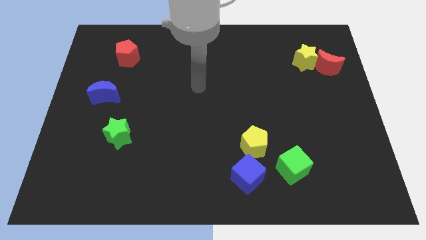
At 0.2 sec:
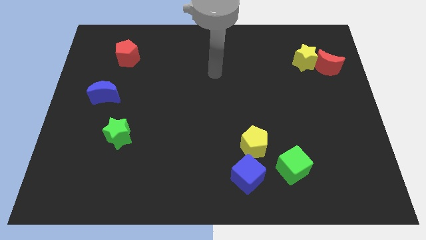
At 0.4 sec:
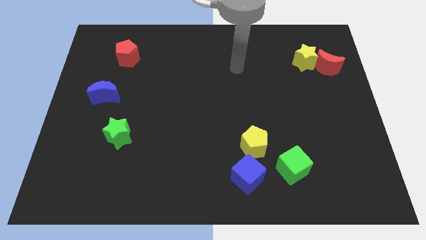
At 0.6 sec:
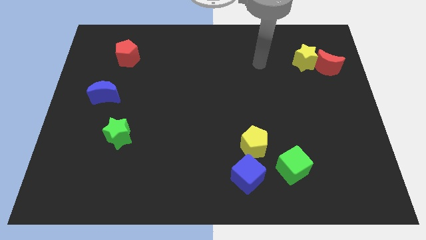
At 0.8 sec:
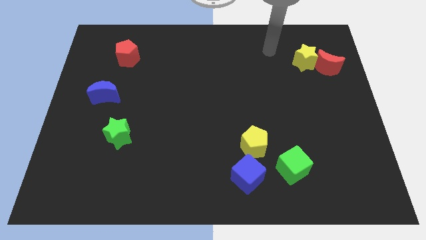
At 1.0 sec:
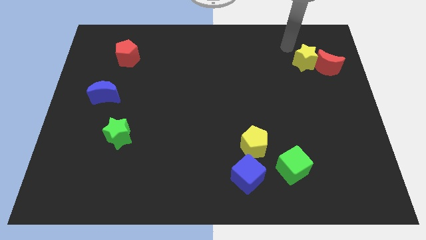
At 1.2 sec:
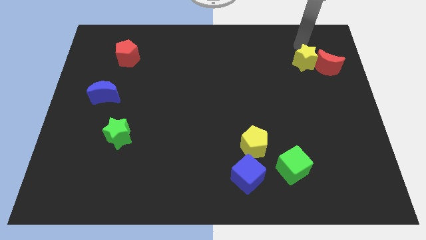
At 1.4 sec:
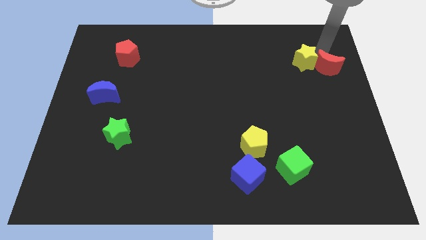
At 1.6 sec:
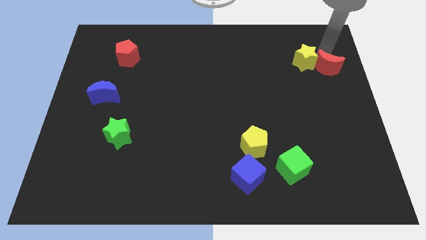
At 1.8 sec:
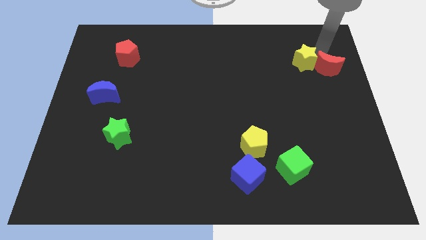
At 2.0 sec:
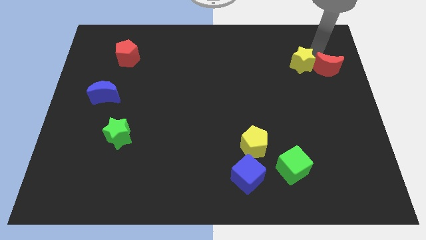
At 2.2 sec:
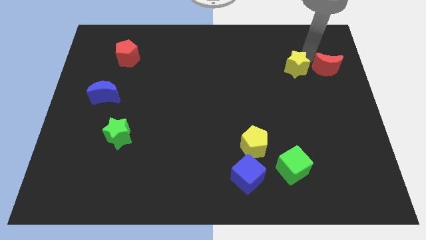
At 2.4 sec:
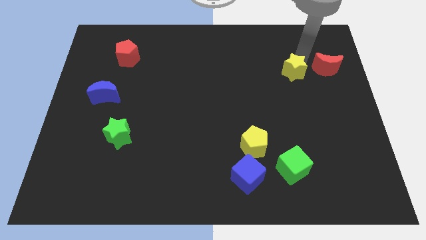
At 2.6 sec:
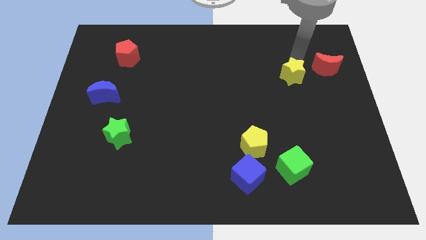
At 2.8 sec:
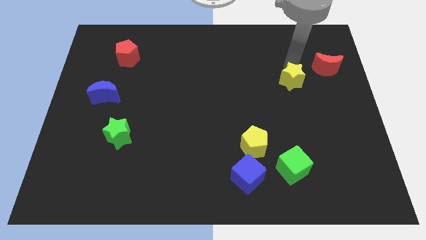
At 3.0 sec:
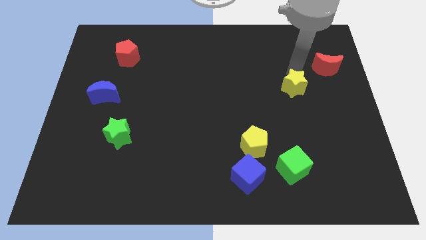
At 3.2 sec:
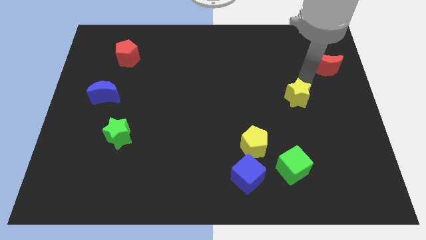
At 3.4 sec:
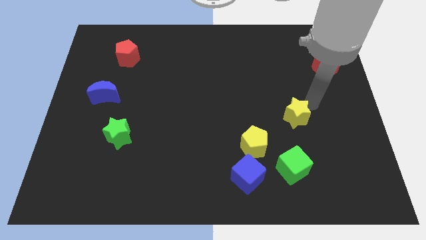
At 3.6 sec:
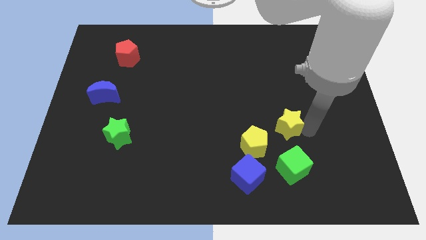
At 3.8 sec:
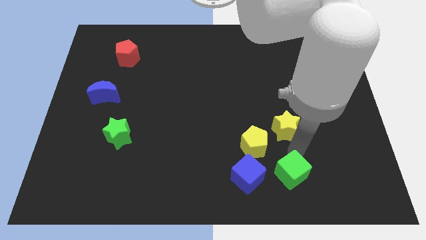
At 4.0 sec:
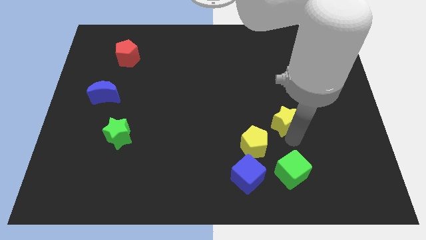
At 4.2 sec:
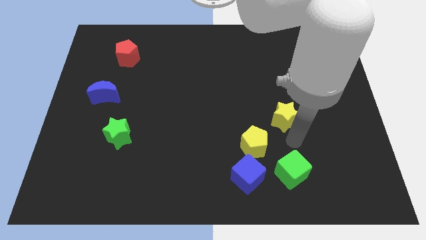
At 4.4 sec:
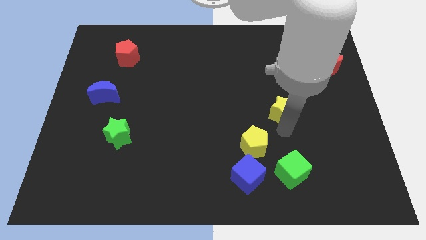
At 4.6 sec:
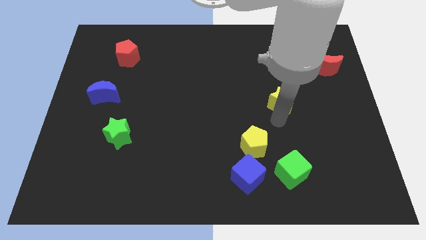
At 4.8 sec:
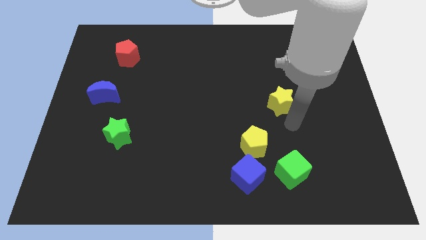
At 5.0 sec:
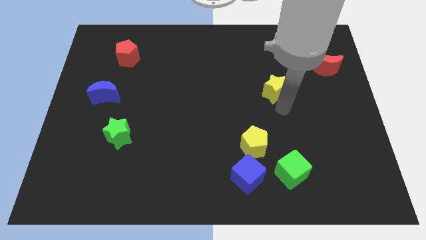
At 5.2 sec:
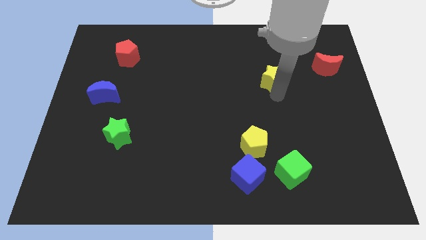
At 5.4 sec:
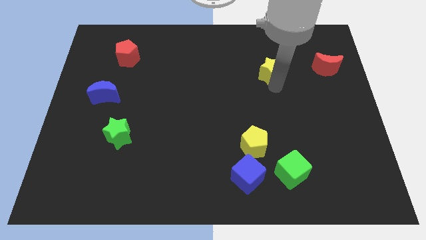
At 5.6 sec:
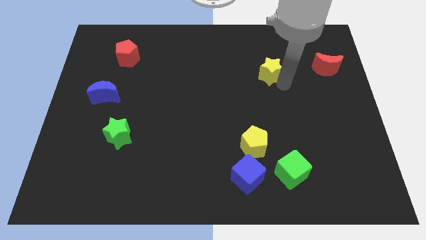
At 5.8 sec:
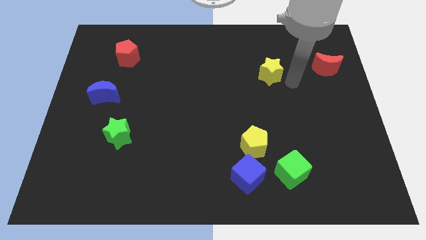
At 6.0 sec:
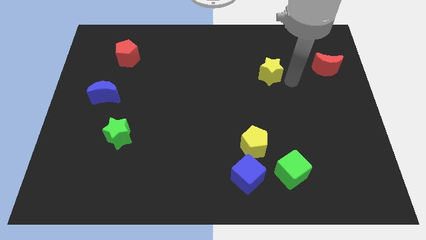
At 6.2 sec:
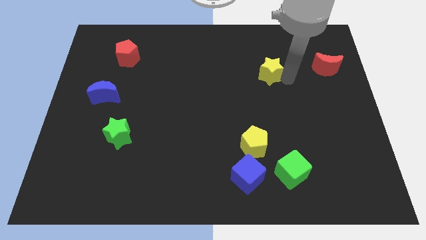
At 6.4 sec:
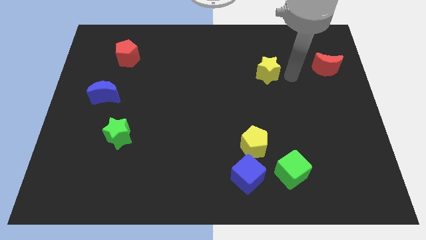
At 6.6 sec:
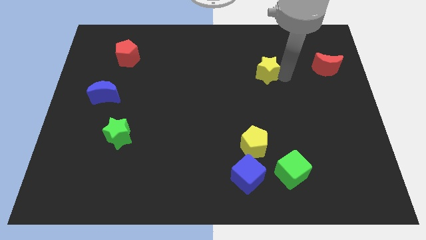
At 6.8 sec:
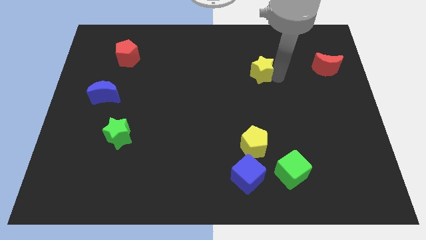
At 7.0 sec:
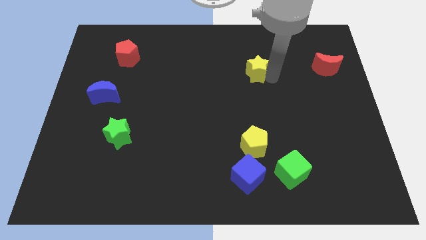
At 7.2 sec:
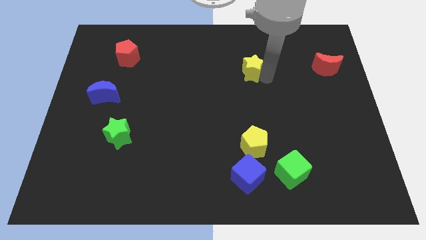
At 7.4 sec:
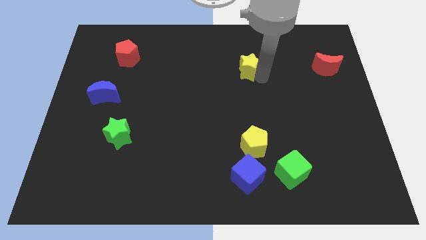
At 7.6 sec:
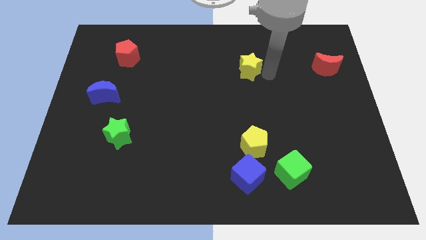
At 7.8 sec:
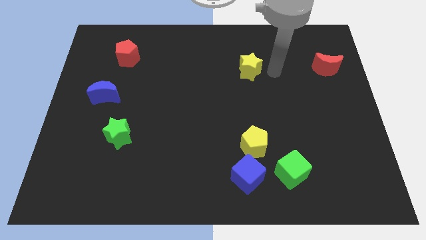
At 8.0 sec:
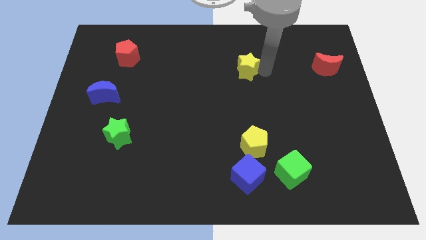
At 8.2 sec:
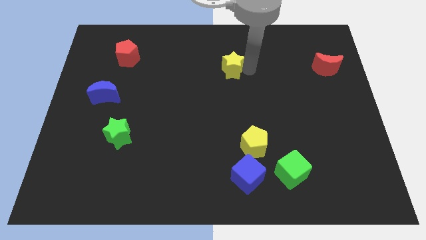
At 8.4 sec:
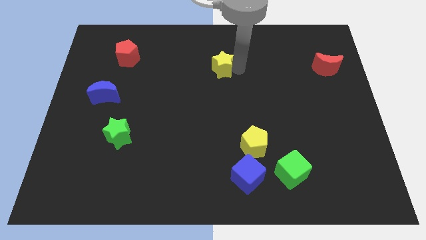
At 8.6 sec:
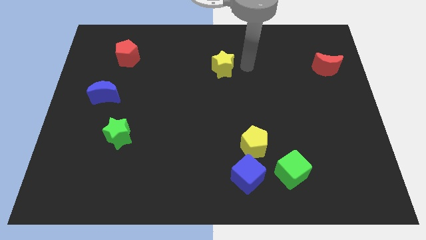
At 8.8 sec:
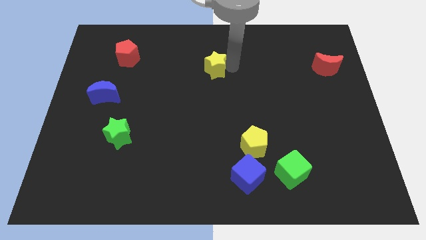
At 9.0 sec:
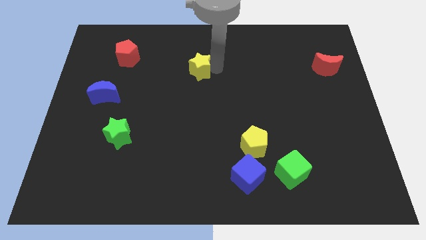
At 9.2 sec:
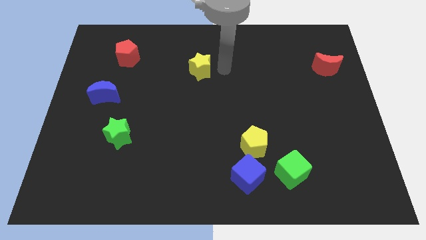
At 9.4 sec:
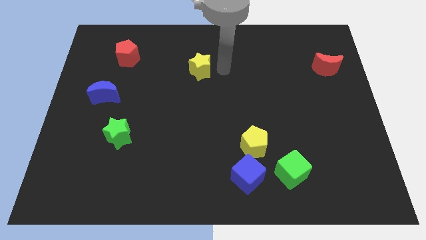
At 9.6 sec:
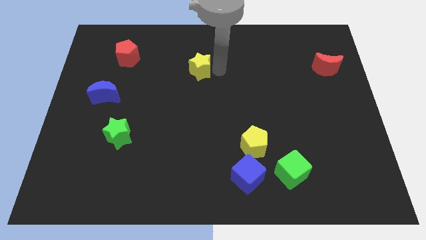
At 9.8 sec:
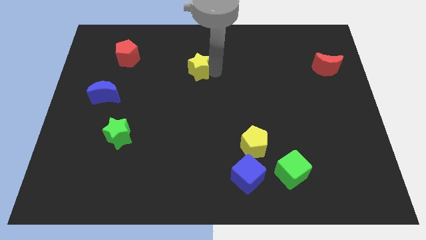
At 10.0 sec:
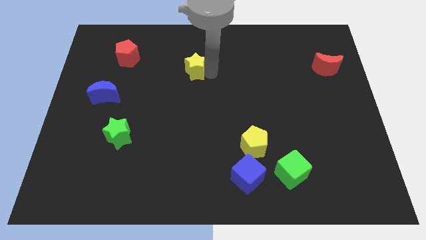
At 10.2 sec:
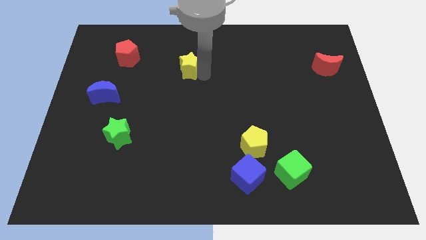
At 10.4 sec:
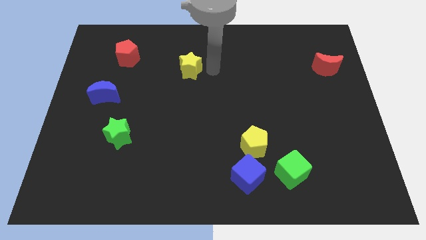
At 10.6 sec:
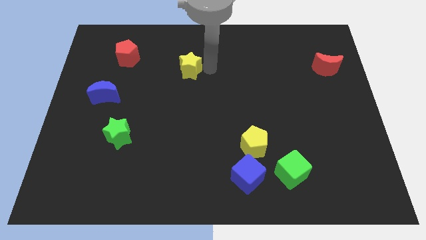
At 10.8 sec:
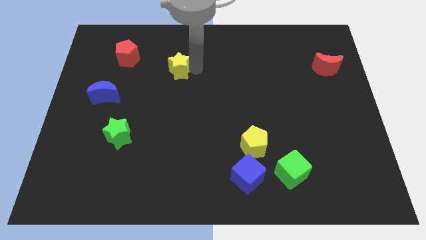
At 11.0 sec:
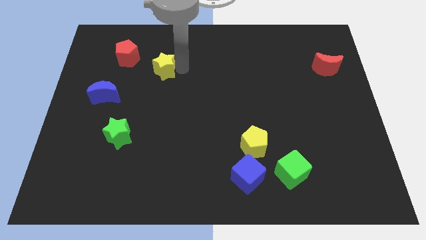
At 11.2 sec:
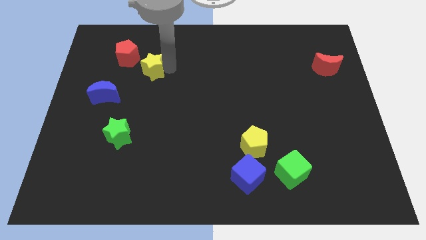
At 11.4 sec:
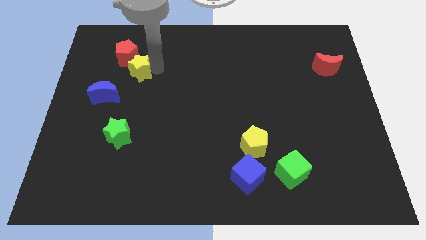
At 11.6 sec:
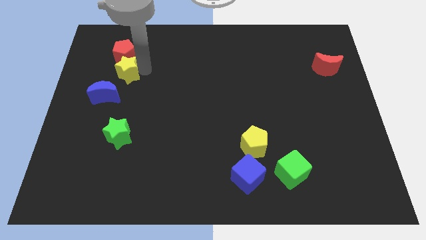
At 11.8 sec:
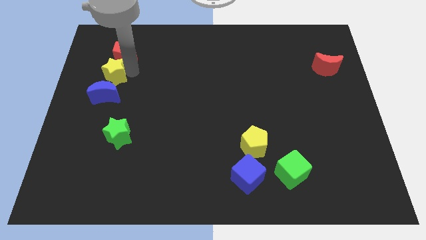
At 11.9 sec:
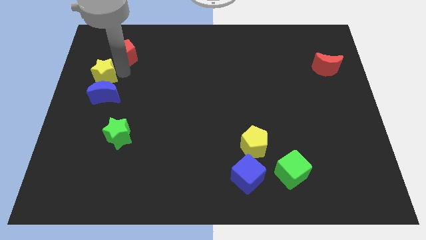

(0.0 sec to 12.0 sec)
slide the yellow star to the center left
